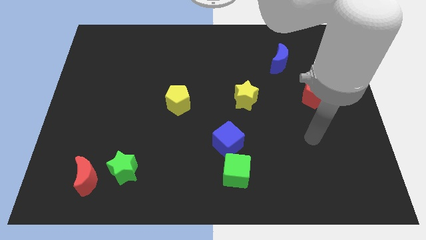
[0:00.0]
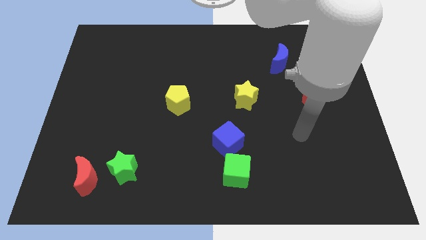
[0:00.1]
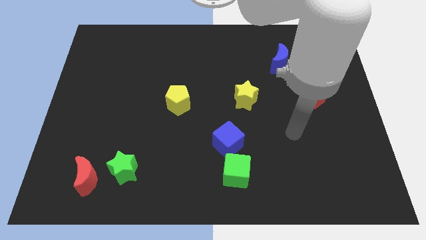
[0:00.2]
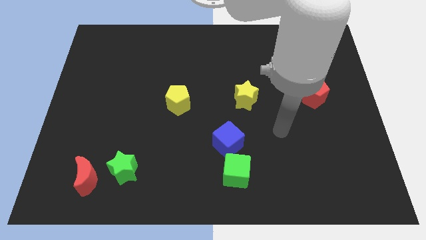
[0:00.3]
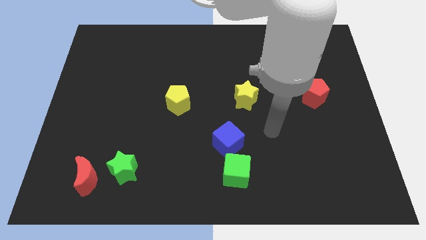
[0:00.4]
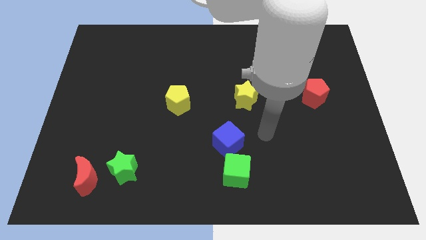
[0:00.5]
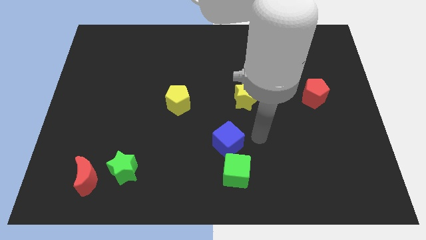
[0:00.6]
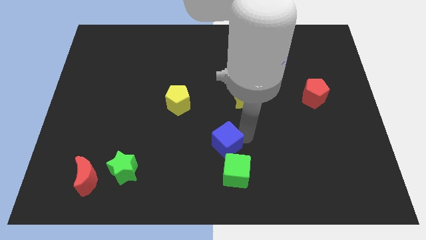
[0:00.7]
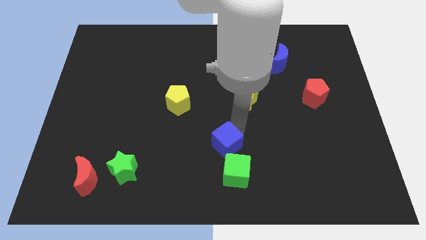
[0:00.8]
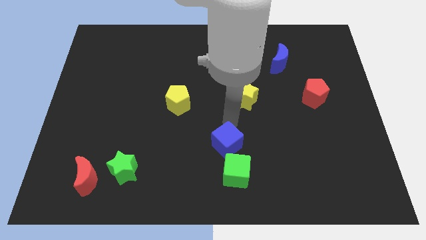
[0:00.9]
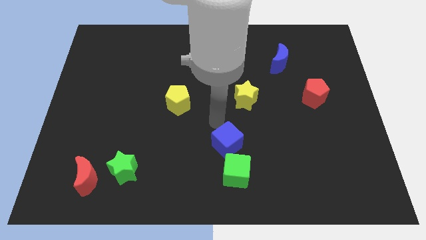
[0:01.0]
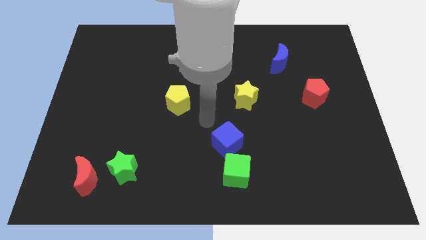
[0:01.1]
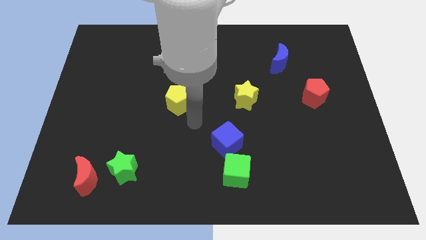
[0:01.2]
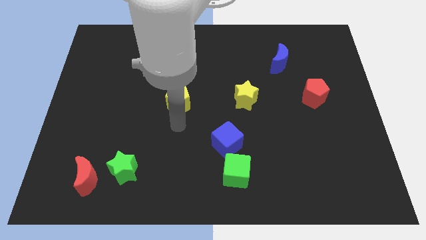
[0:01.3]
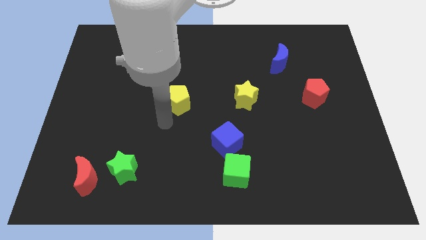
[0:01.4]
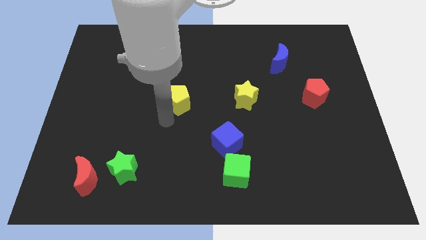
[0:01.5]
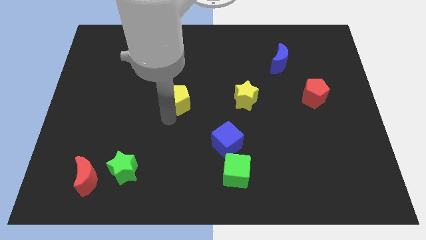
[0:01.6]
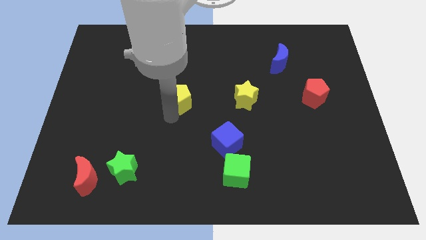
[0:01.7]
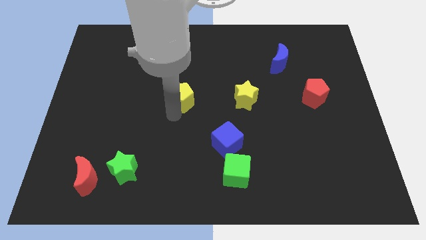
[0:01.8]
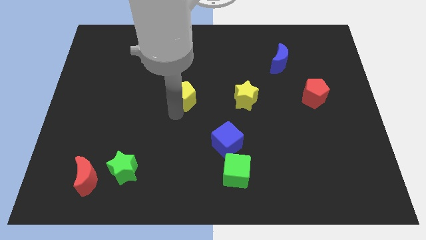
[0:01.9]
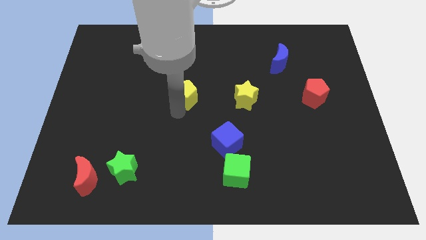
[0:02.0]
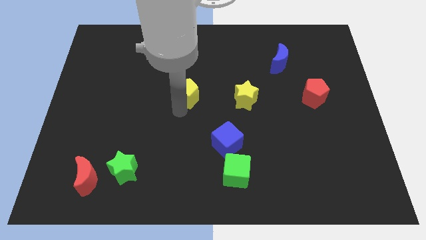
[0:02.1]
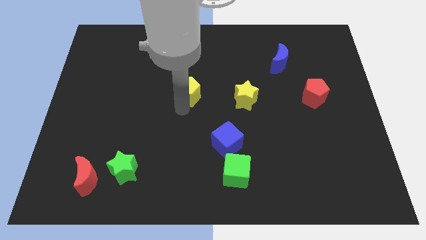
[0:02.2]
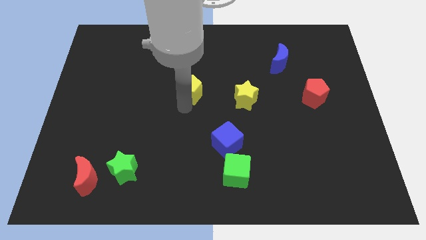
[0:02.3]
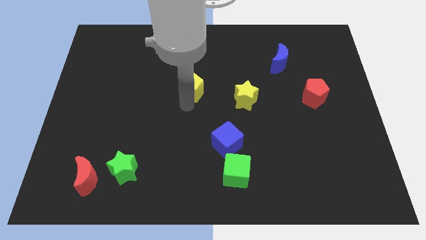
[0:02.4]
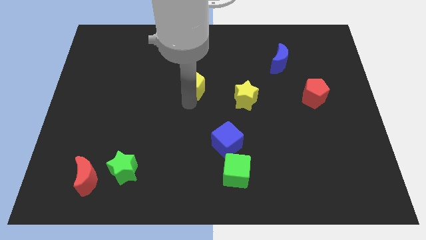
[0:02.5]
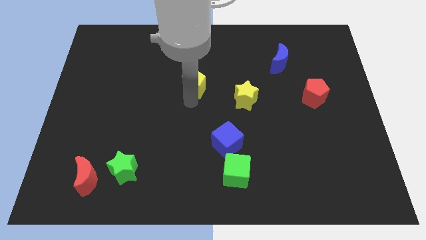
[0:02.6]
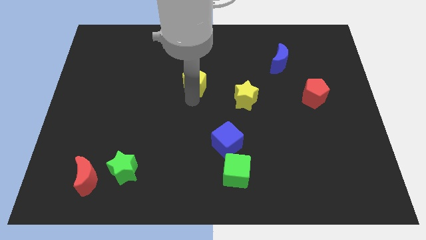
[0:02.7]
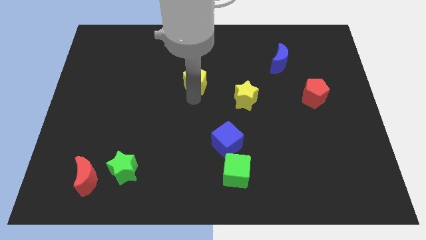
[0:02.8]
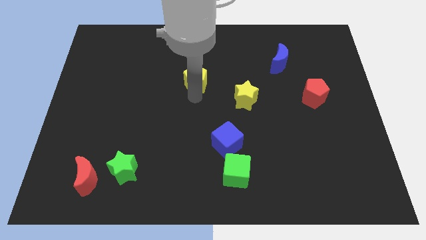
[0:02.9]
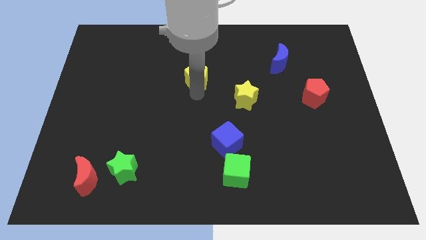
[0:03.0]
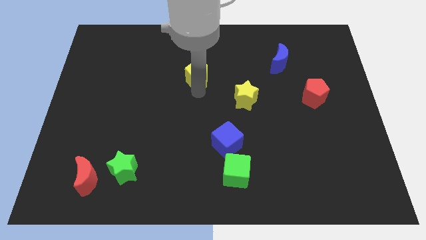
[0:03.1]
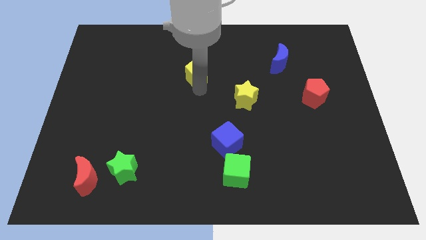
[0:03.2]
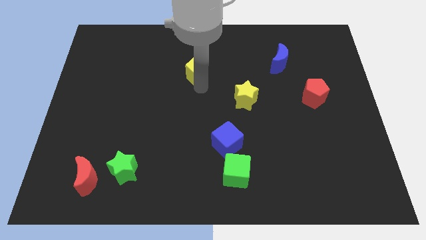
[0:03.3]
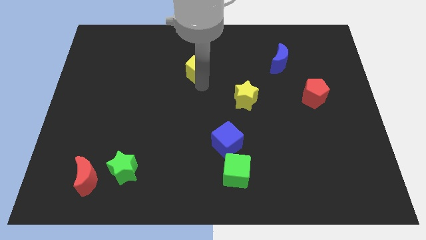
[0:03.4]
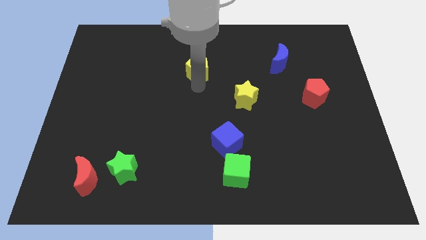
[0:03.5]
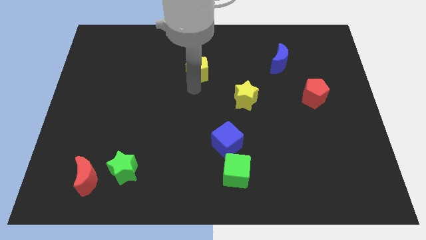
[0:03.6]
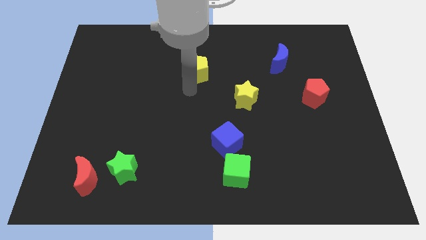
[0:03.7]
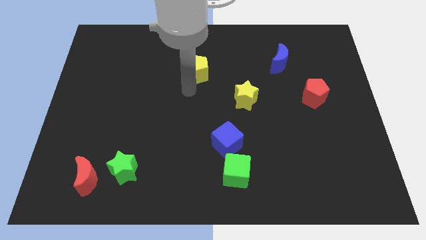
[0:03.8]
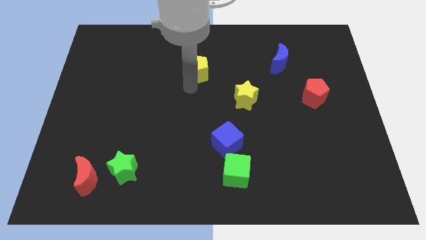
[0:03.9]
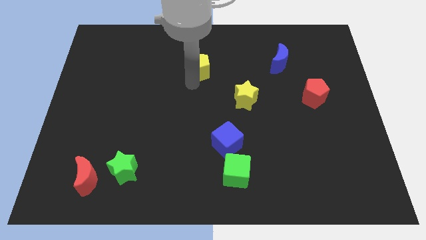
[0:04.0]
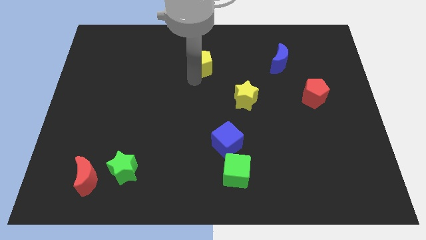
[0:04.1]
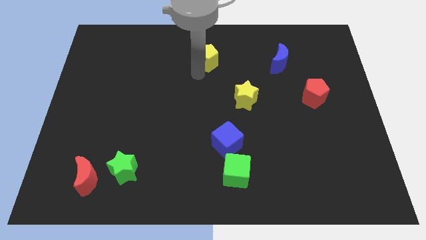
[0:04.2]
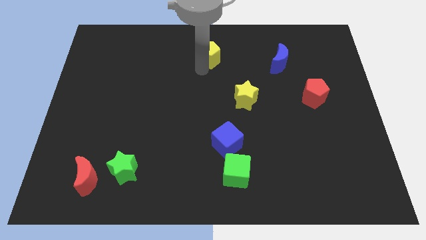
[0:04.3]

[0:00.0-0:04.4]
move the yellow pentagon to the towards your base

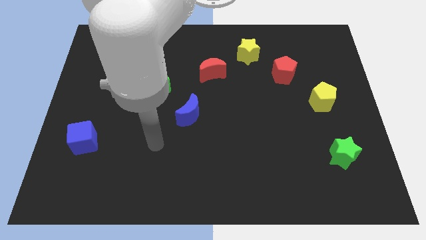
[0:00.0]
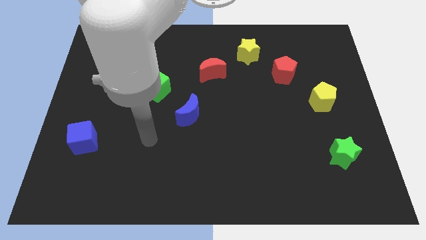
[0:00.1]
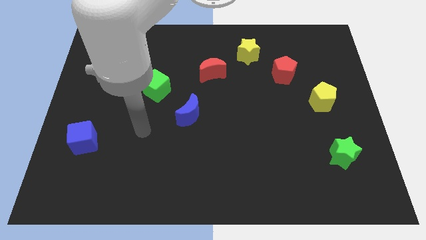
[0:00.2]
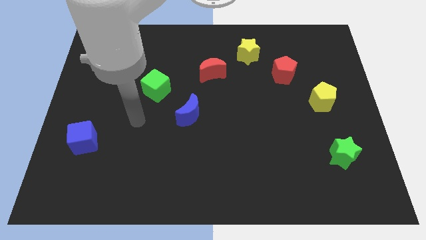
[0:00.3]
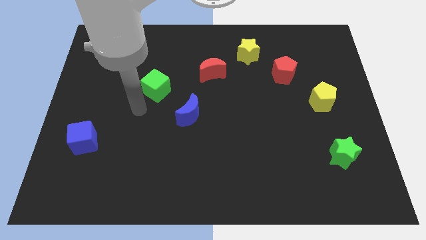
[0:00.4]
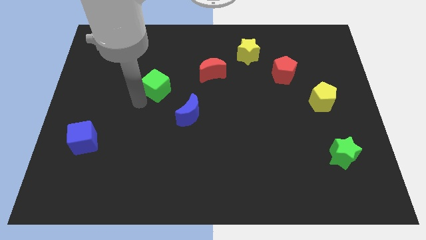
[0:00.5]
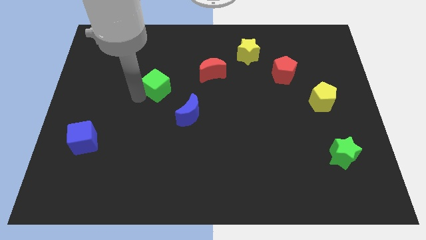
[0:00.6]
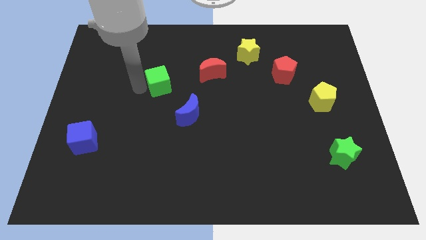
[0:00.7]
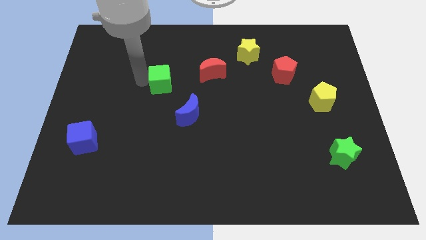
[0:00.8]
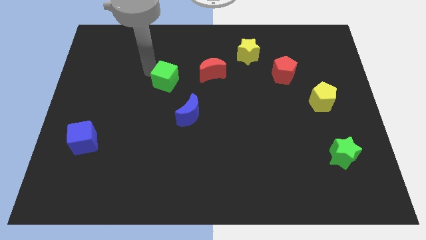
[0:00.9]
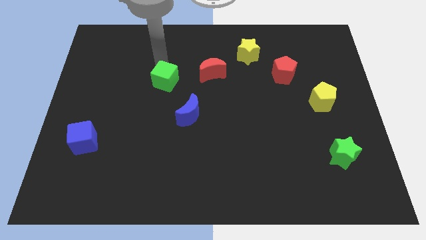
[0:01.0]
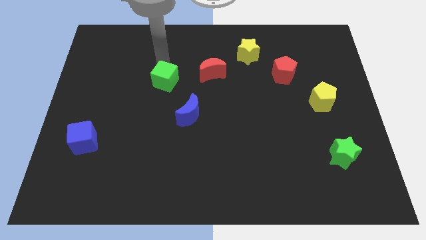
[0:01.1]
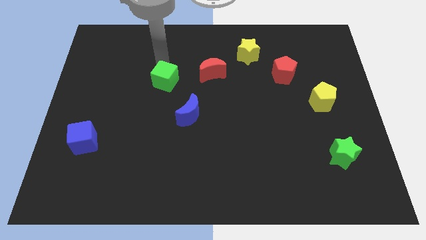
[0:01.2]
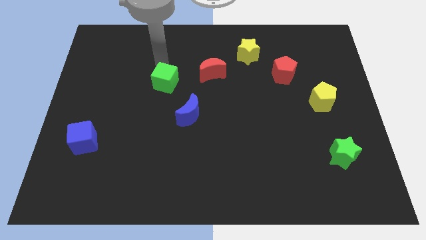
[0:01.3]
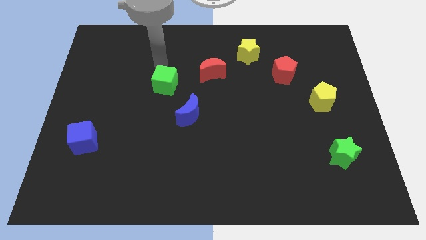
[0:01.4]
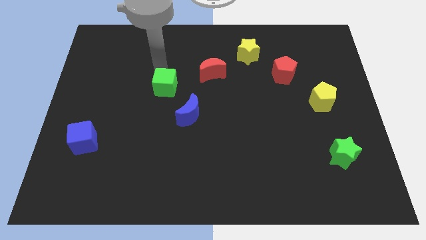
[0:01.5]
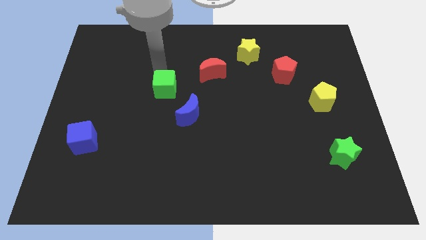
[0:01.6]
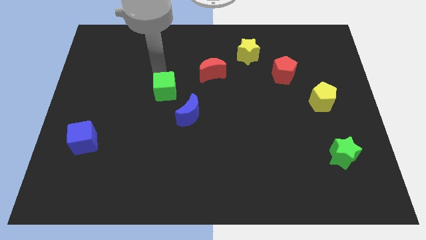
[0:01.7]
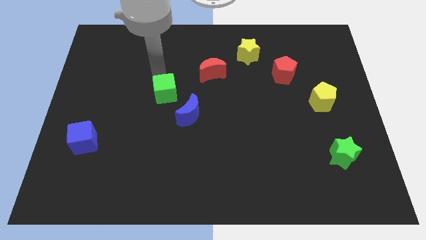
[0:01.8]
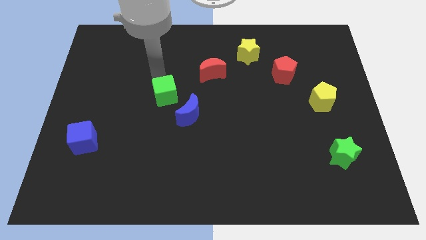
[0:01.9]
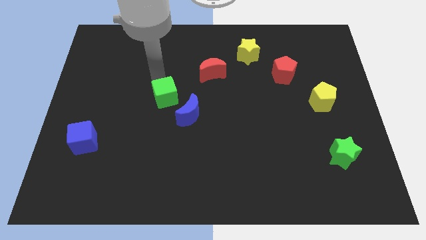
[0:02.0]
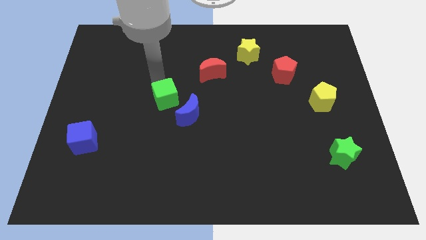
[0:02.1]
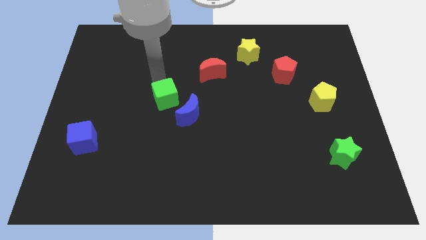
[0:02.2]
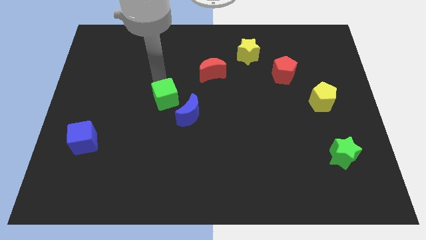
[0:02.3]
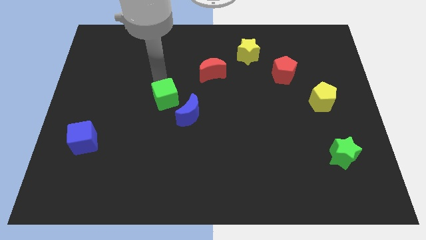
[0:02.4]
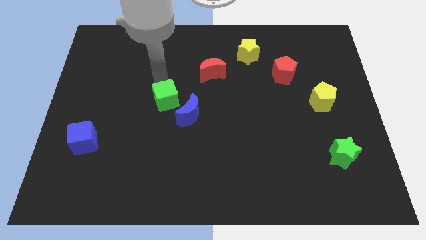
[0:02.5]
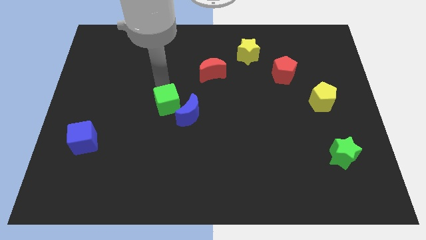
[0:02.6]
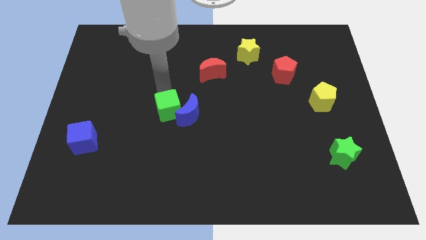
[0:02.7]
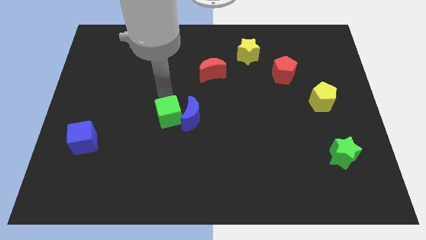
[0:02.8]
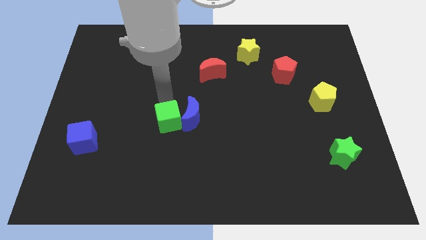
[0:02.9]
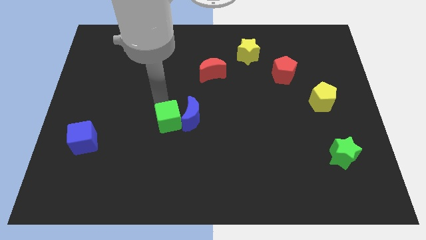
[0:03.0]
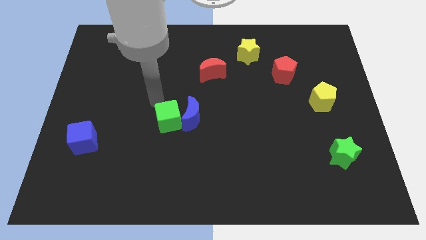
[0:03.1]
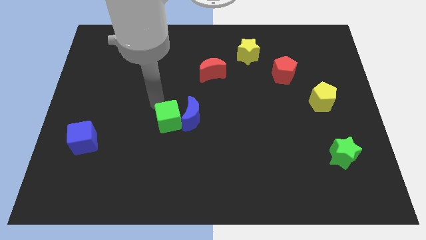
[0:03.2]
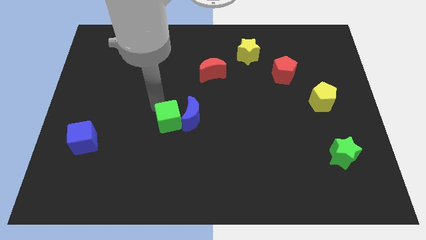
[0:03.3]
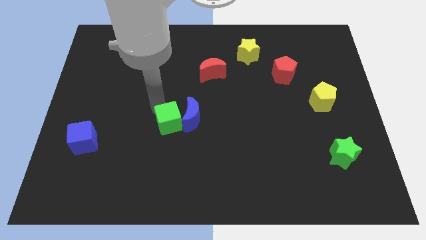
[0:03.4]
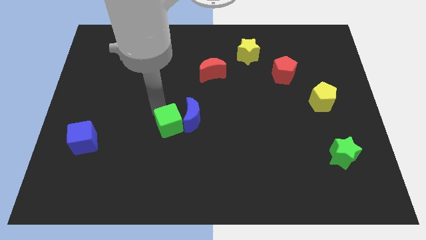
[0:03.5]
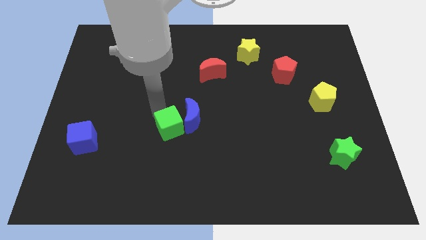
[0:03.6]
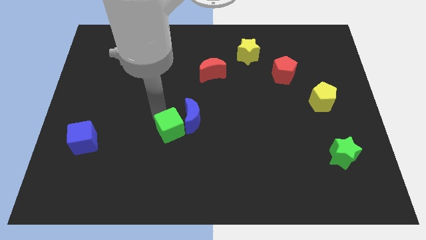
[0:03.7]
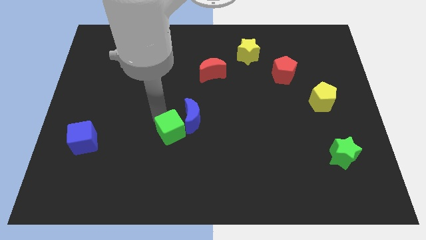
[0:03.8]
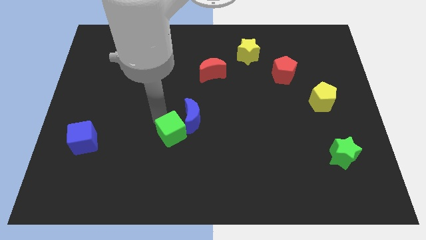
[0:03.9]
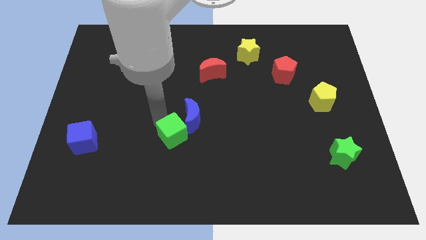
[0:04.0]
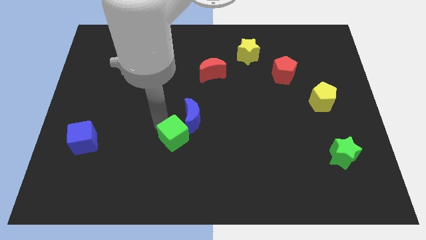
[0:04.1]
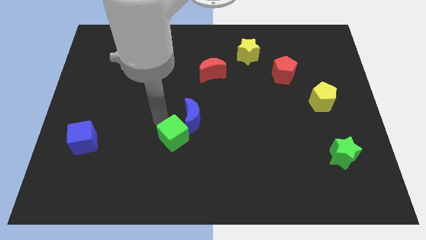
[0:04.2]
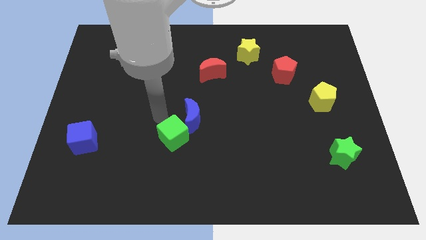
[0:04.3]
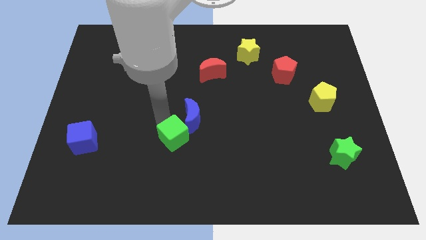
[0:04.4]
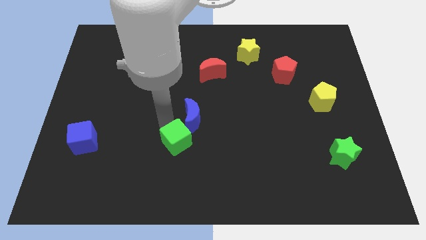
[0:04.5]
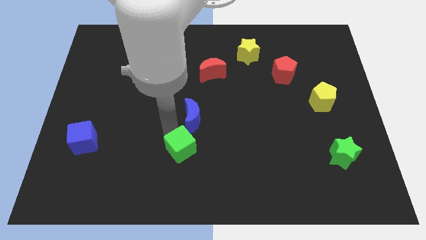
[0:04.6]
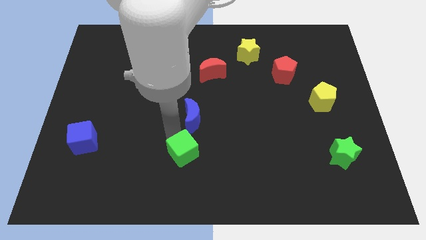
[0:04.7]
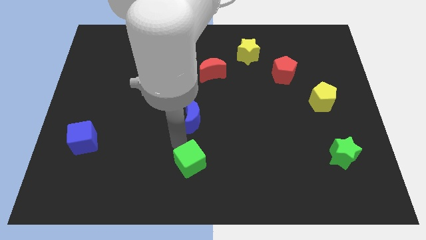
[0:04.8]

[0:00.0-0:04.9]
slide the green cube to the bottom side
